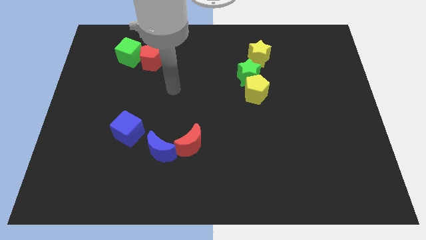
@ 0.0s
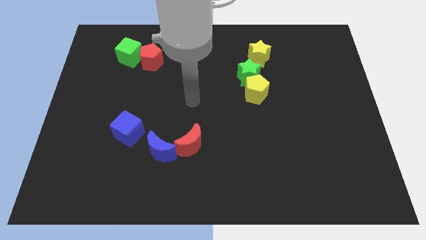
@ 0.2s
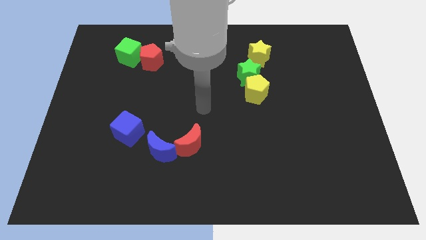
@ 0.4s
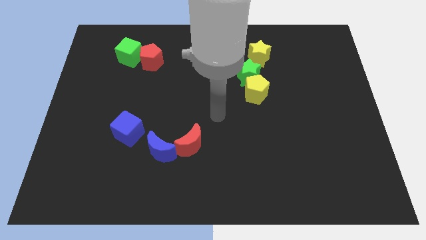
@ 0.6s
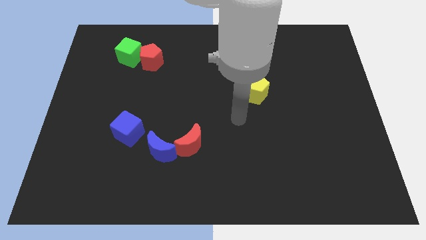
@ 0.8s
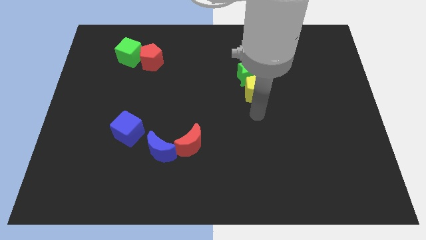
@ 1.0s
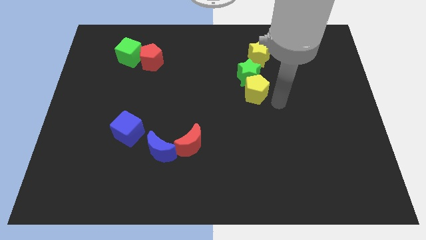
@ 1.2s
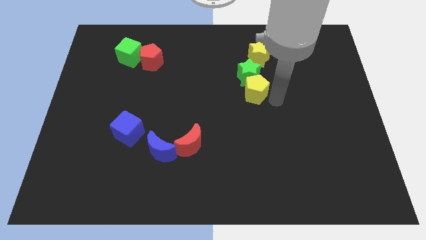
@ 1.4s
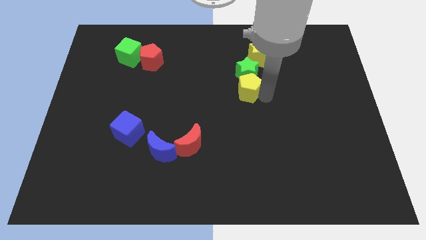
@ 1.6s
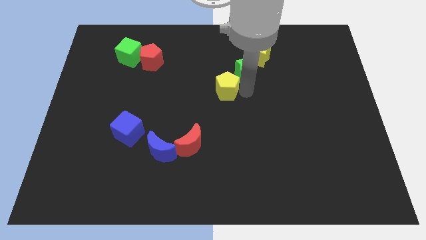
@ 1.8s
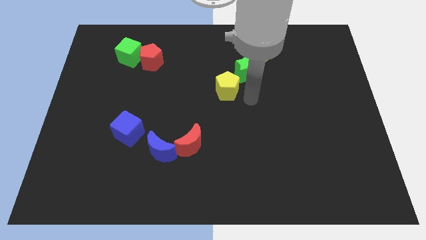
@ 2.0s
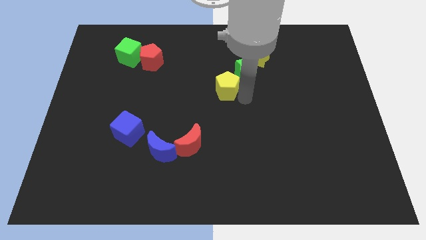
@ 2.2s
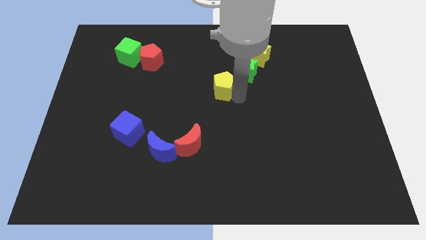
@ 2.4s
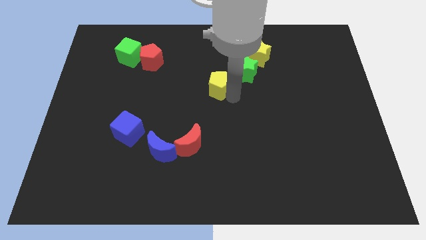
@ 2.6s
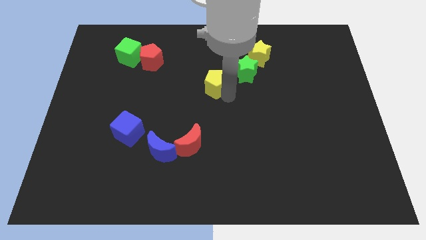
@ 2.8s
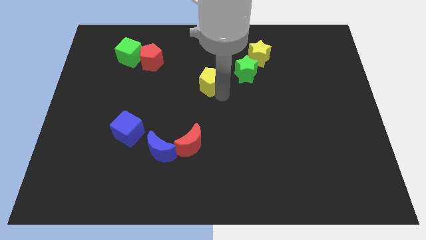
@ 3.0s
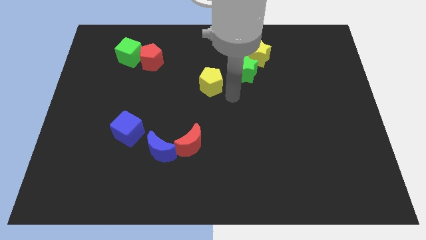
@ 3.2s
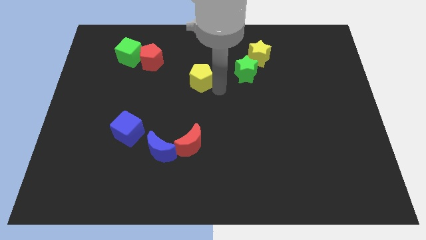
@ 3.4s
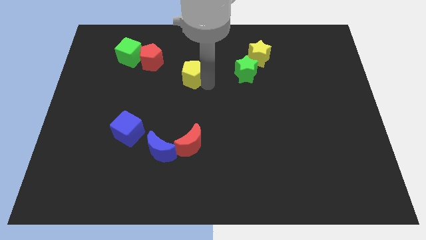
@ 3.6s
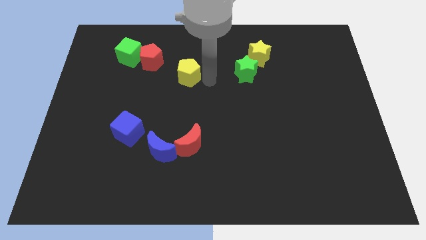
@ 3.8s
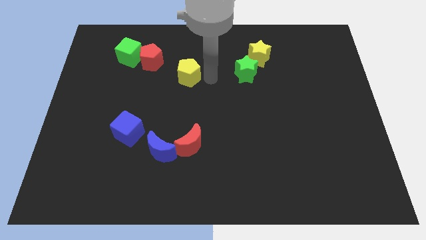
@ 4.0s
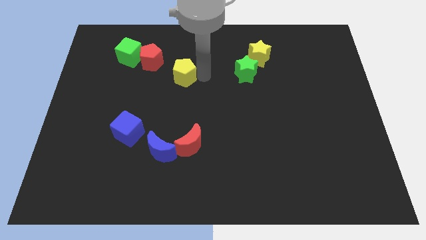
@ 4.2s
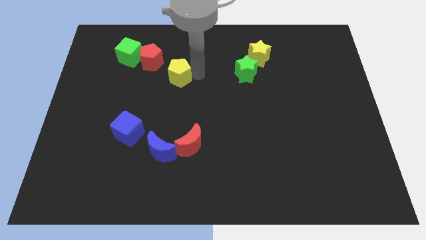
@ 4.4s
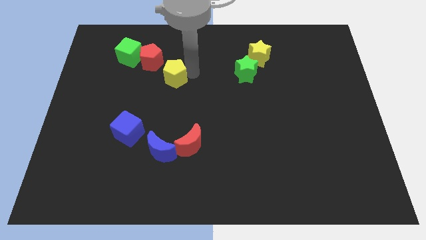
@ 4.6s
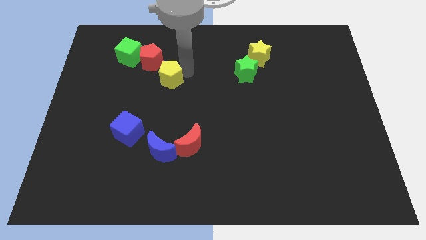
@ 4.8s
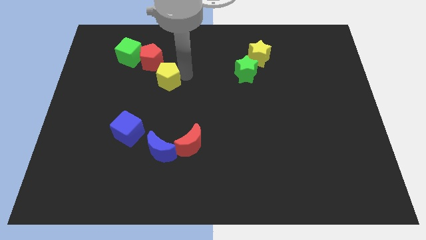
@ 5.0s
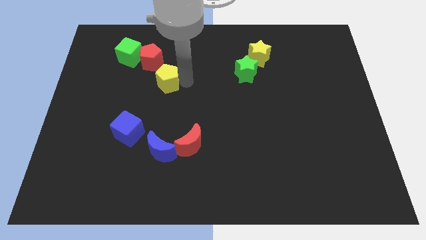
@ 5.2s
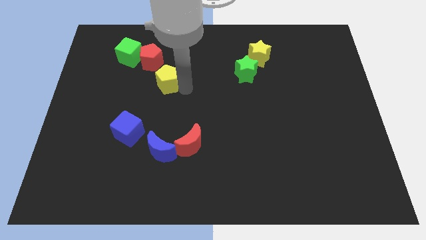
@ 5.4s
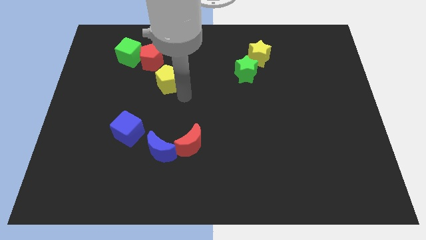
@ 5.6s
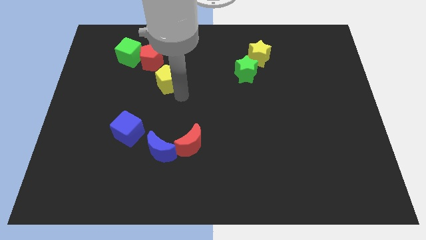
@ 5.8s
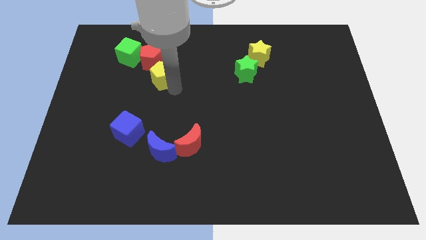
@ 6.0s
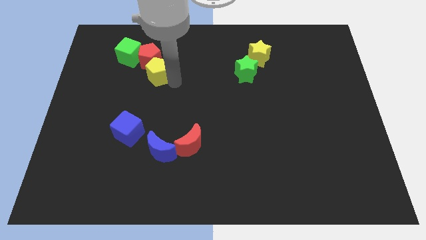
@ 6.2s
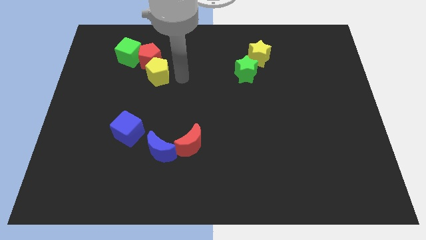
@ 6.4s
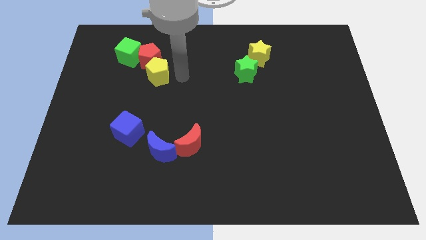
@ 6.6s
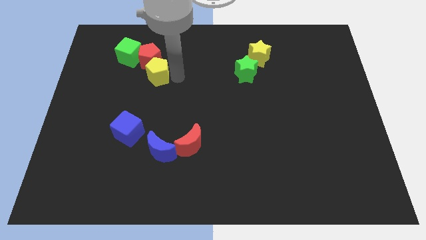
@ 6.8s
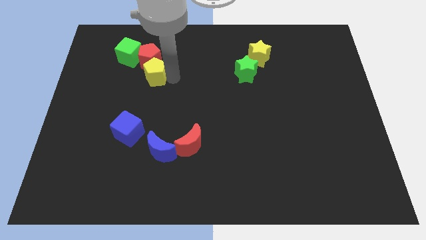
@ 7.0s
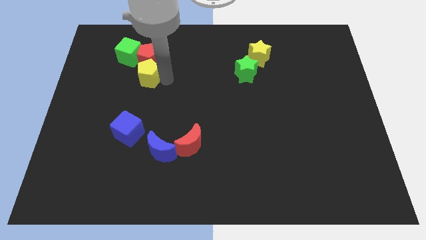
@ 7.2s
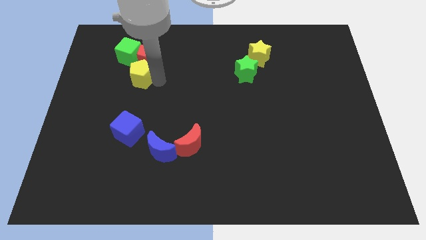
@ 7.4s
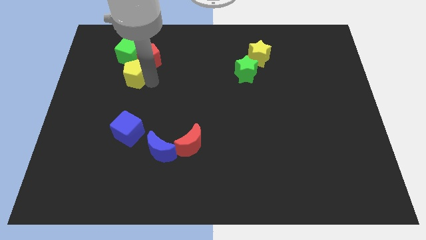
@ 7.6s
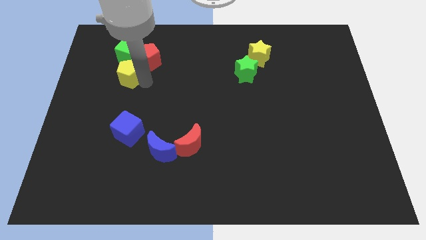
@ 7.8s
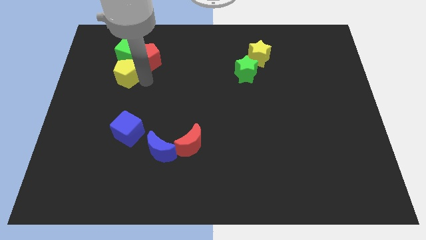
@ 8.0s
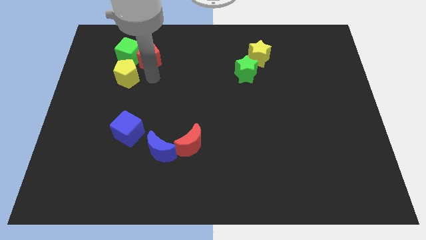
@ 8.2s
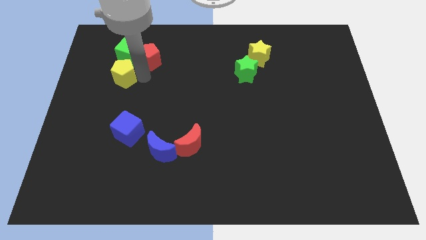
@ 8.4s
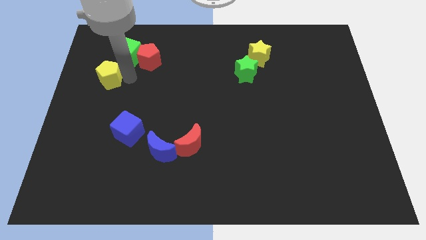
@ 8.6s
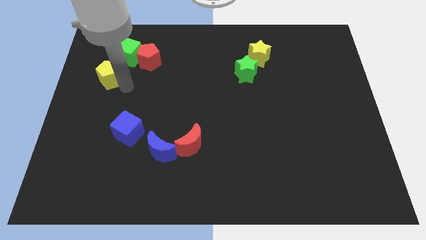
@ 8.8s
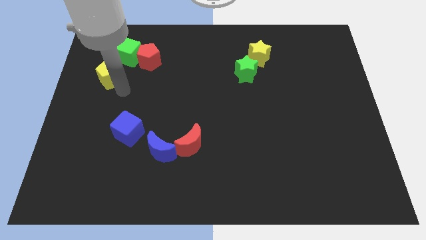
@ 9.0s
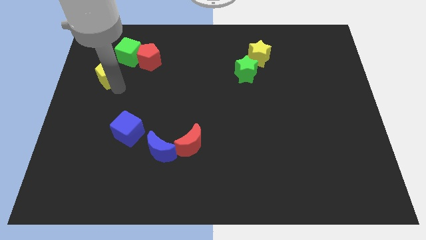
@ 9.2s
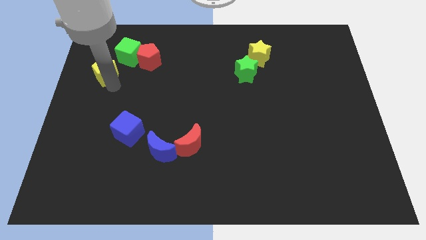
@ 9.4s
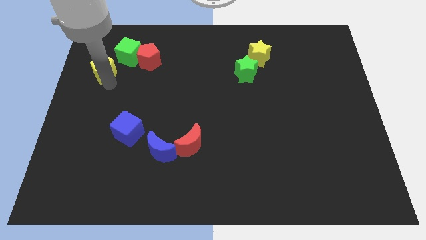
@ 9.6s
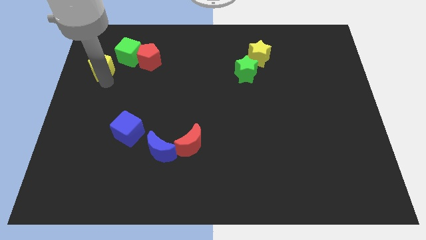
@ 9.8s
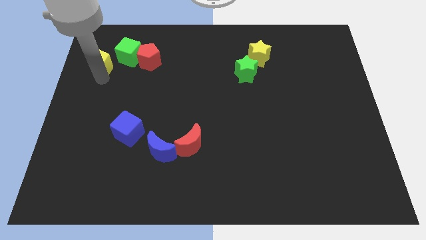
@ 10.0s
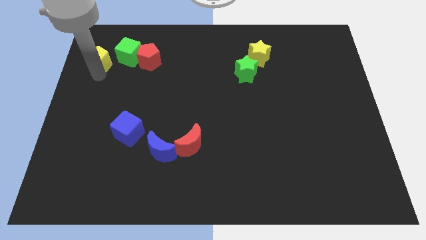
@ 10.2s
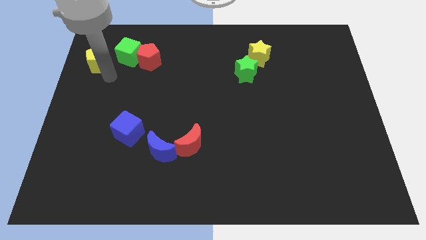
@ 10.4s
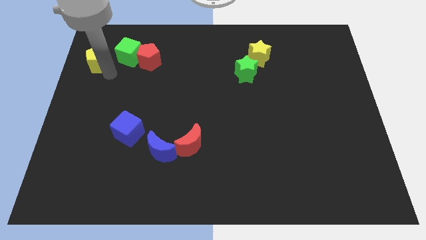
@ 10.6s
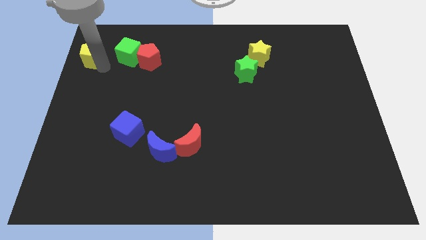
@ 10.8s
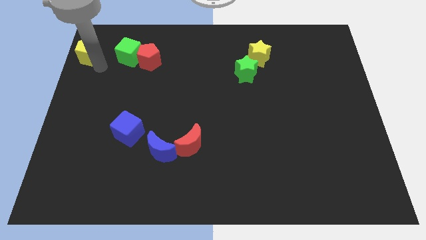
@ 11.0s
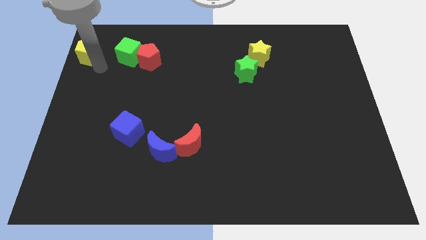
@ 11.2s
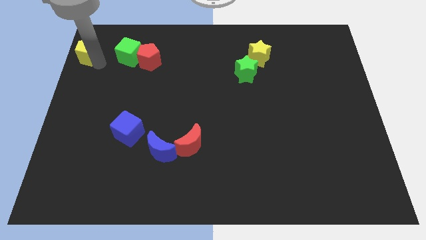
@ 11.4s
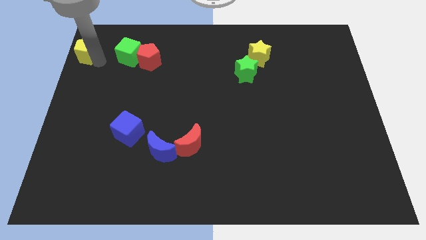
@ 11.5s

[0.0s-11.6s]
move the yellow pentagon to the top left corner

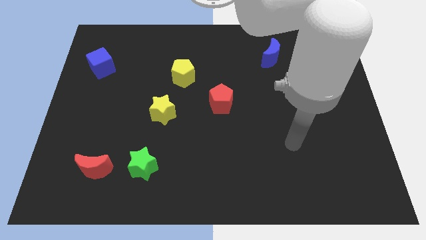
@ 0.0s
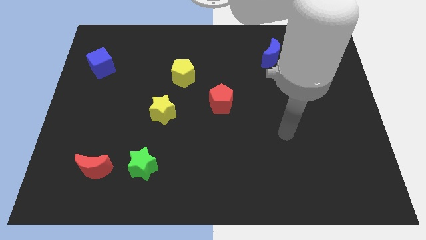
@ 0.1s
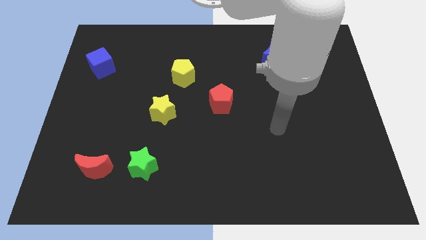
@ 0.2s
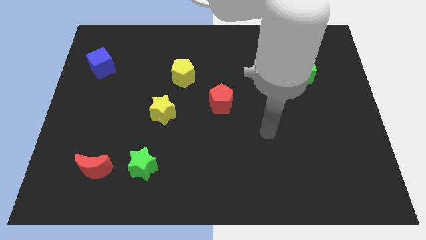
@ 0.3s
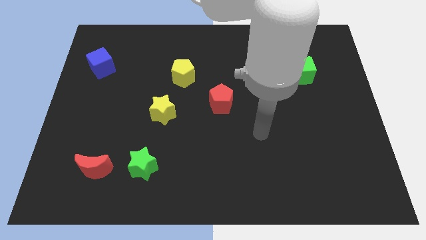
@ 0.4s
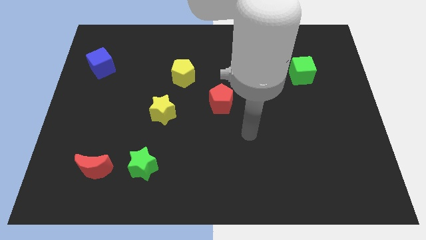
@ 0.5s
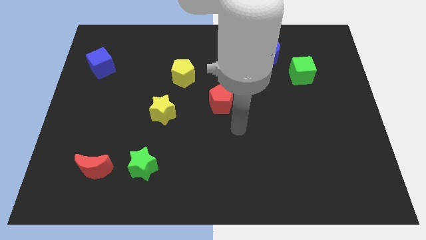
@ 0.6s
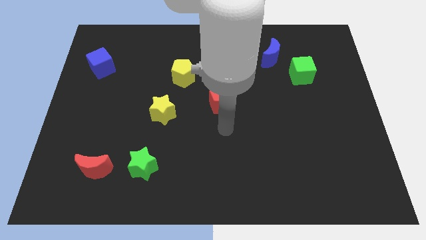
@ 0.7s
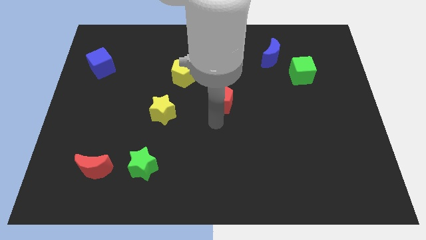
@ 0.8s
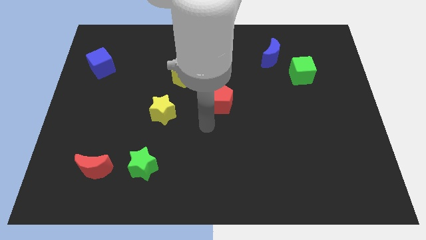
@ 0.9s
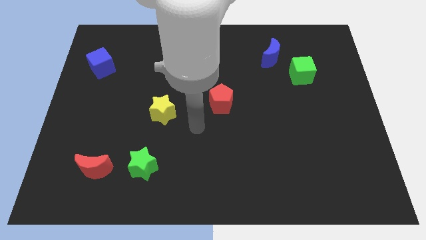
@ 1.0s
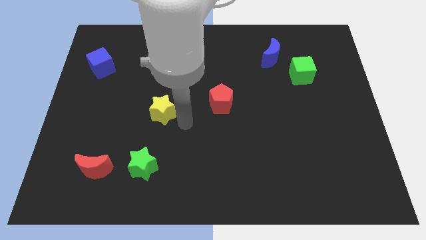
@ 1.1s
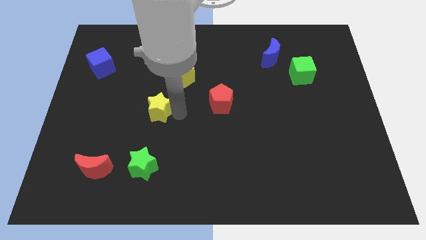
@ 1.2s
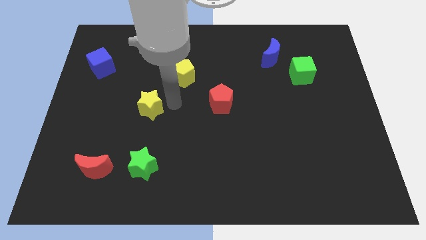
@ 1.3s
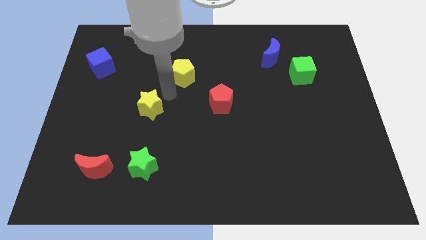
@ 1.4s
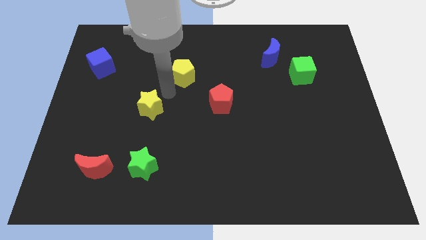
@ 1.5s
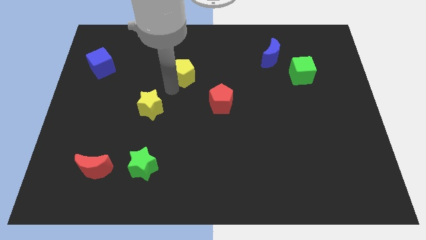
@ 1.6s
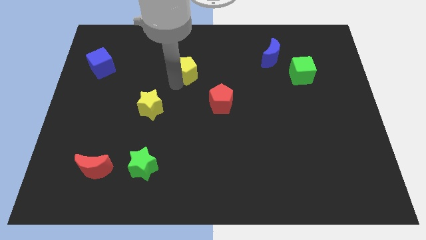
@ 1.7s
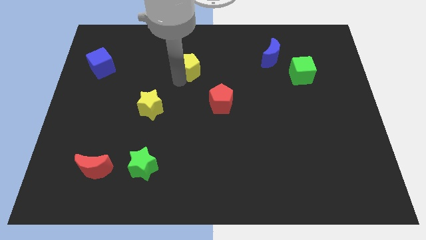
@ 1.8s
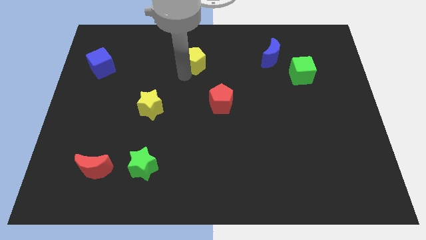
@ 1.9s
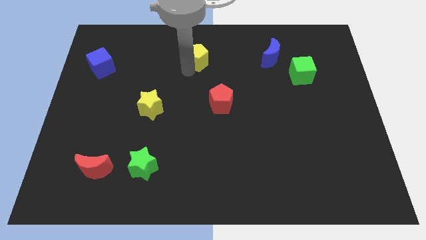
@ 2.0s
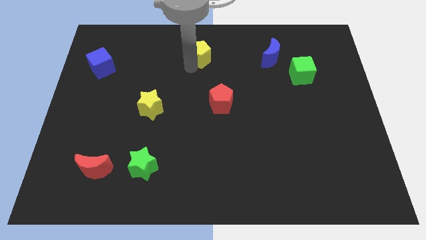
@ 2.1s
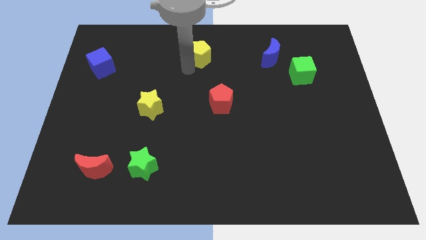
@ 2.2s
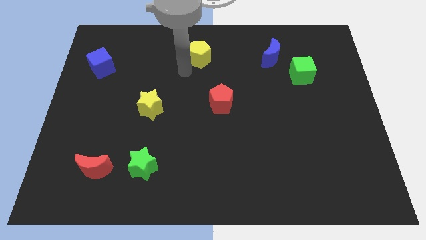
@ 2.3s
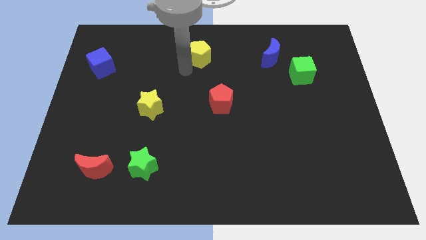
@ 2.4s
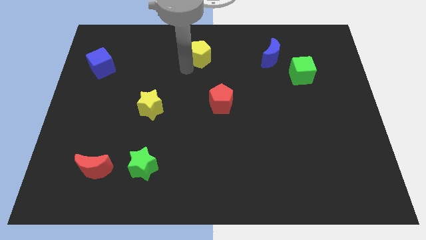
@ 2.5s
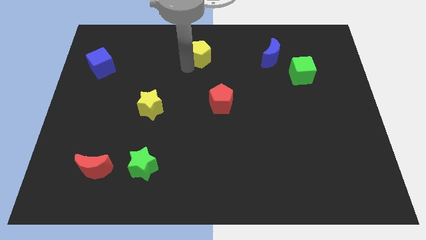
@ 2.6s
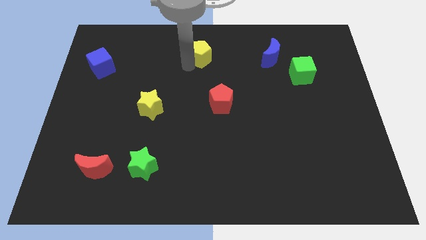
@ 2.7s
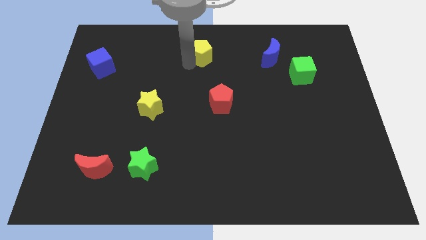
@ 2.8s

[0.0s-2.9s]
slide the yellow pentagon to the top side
